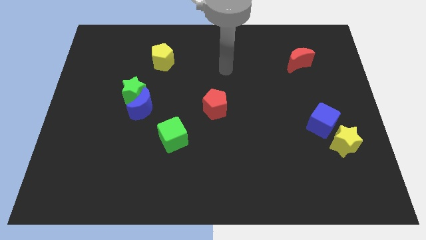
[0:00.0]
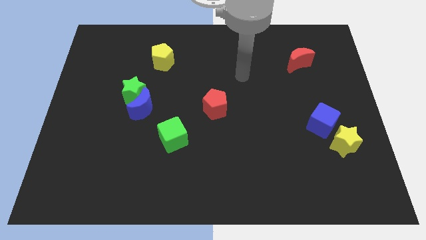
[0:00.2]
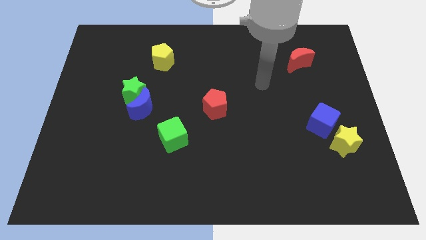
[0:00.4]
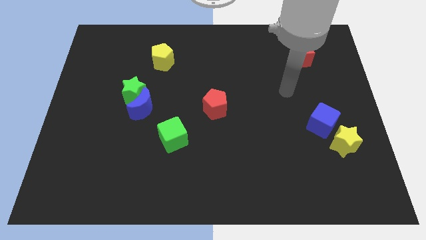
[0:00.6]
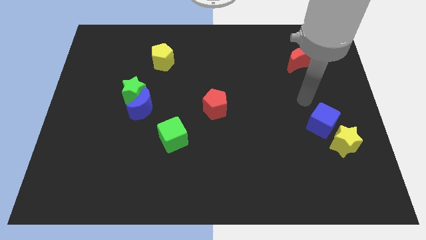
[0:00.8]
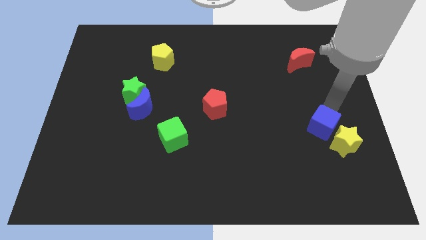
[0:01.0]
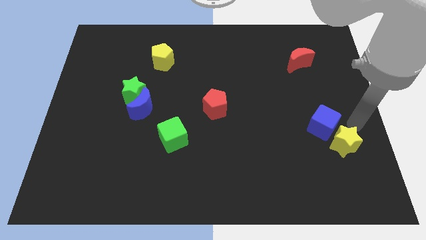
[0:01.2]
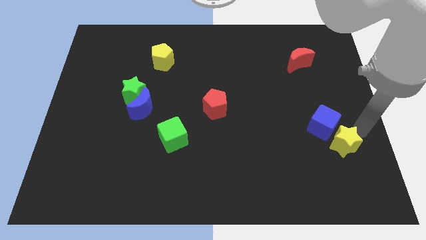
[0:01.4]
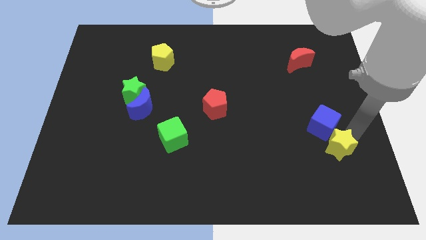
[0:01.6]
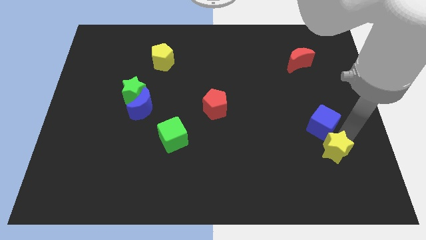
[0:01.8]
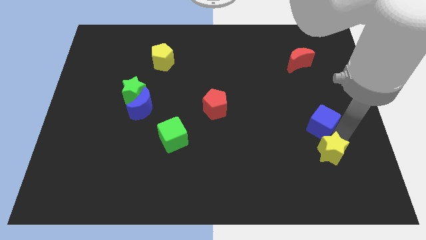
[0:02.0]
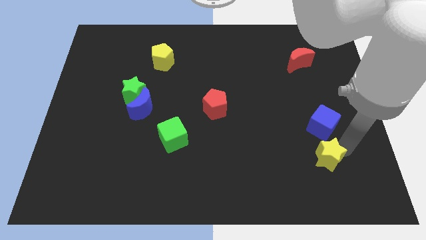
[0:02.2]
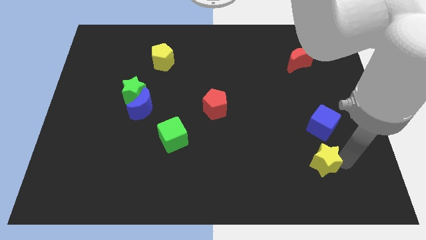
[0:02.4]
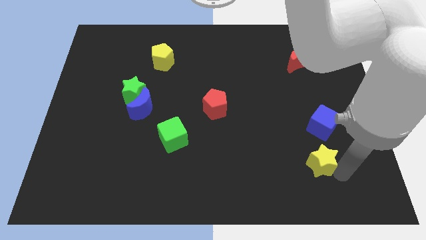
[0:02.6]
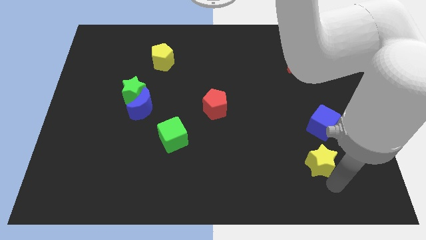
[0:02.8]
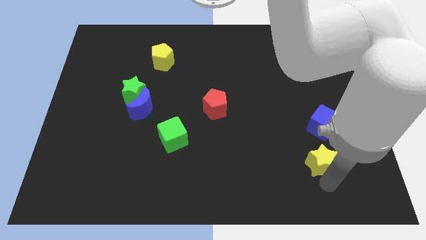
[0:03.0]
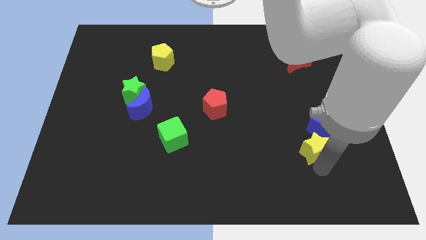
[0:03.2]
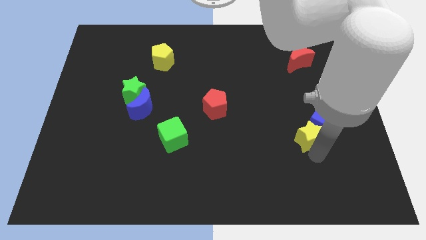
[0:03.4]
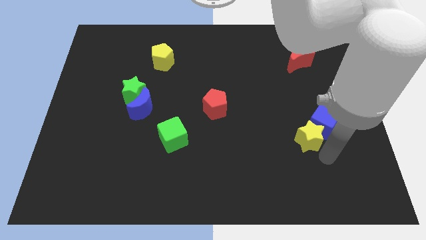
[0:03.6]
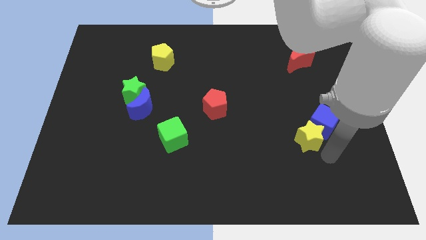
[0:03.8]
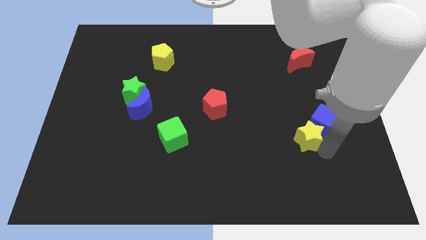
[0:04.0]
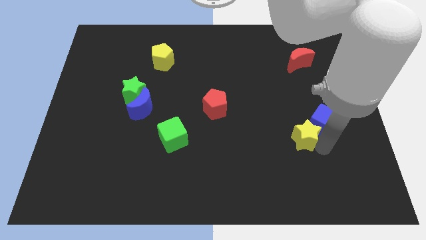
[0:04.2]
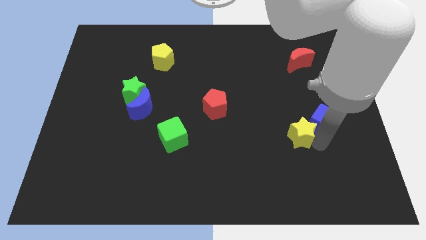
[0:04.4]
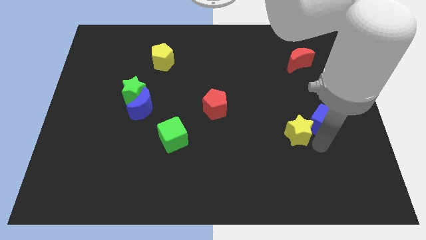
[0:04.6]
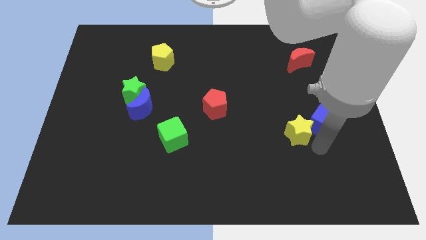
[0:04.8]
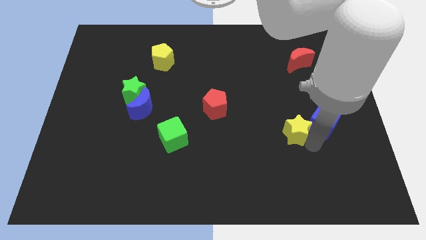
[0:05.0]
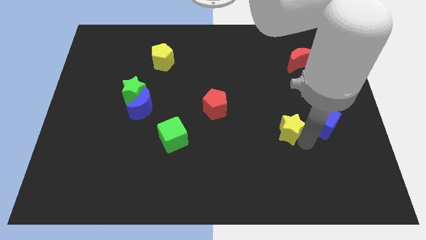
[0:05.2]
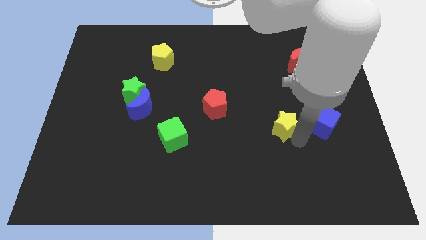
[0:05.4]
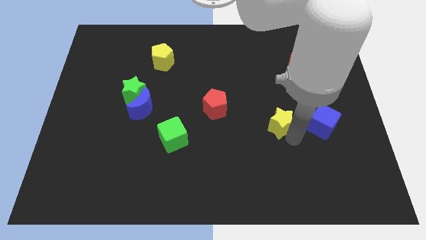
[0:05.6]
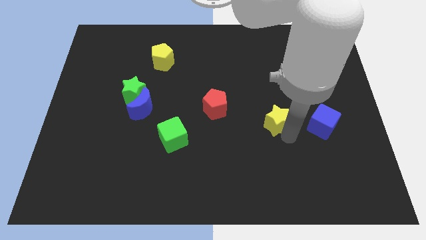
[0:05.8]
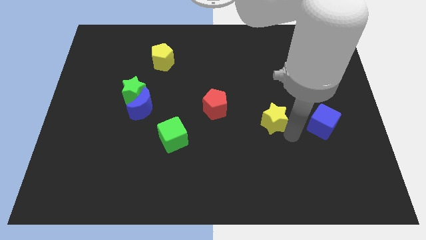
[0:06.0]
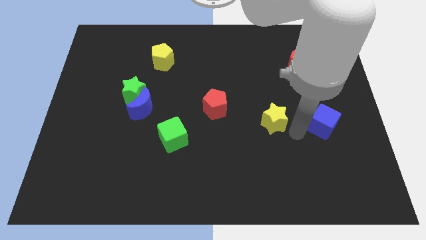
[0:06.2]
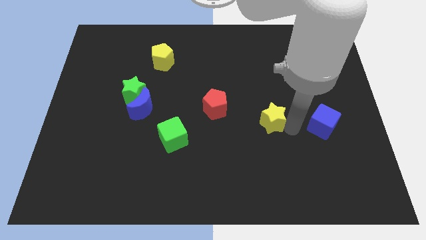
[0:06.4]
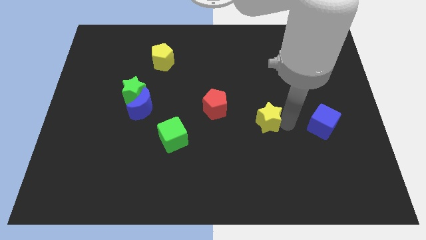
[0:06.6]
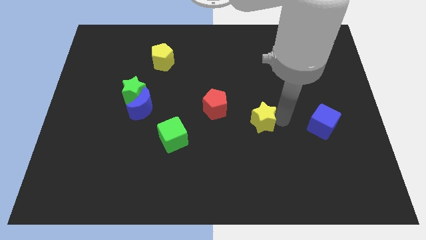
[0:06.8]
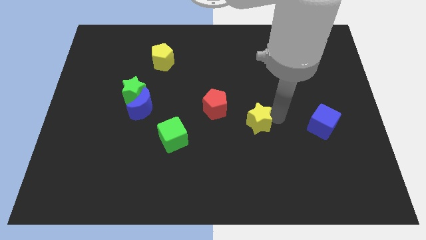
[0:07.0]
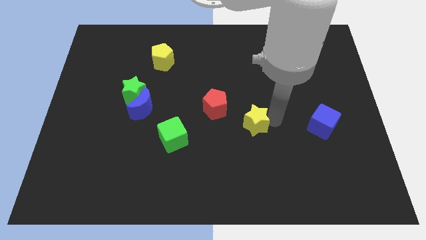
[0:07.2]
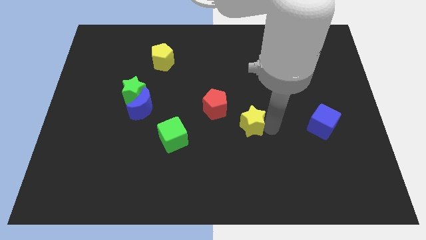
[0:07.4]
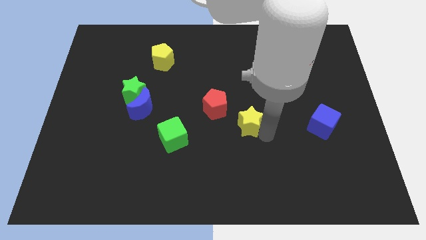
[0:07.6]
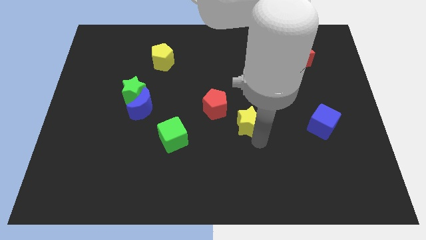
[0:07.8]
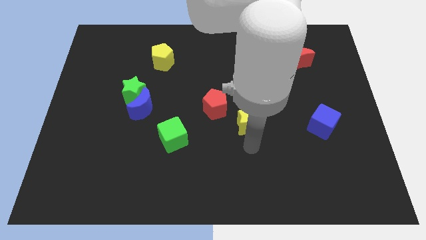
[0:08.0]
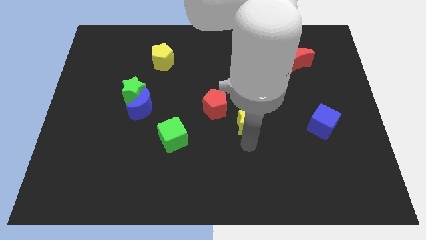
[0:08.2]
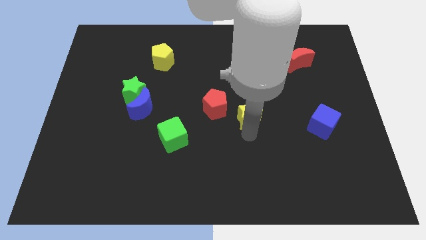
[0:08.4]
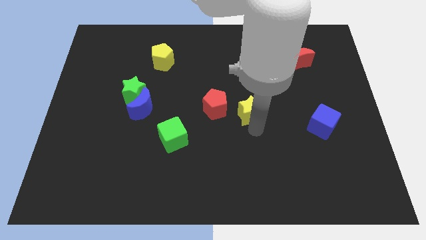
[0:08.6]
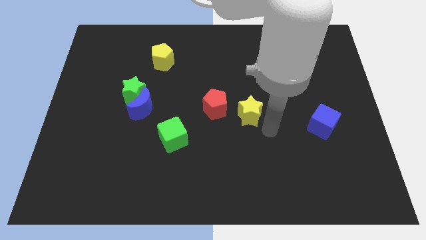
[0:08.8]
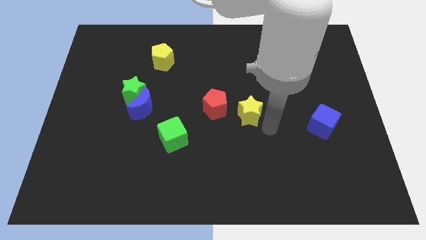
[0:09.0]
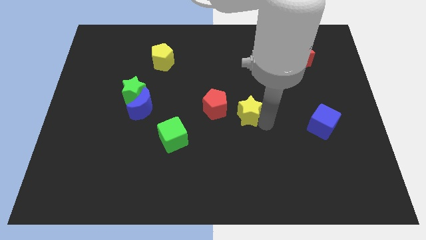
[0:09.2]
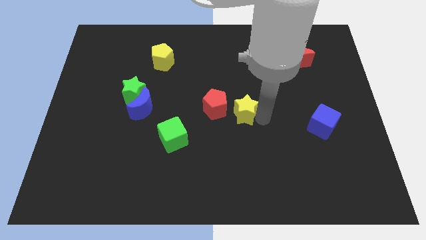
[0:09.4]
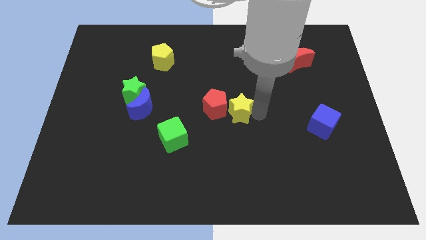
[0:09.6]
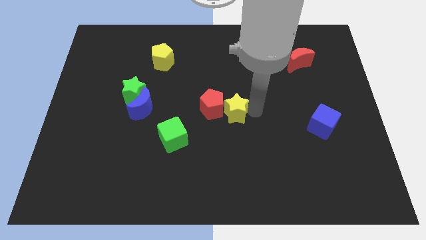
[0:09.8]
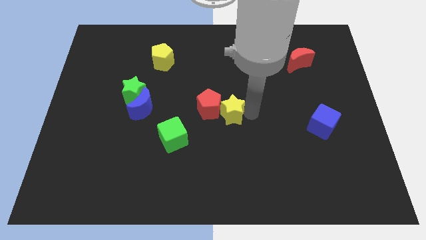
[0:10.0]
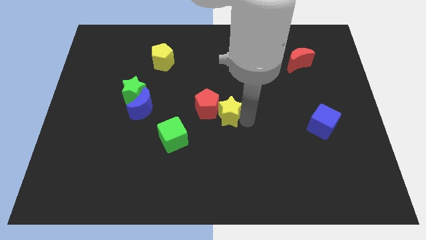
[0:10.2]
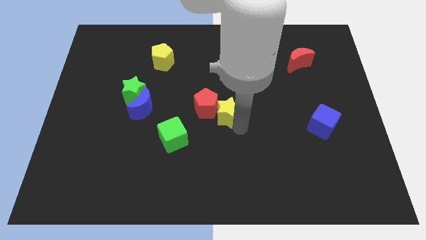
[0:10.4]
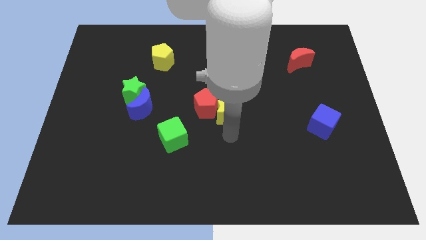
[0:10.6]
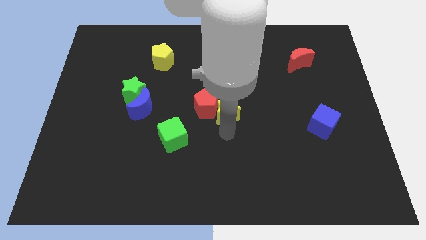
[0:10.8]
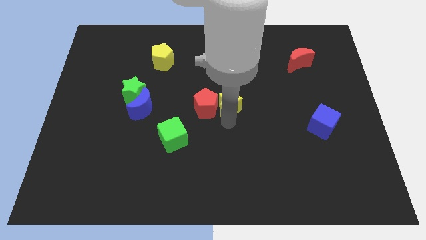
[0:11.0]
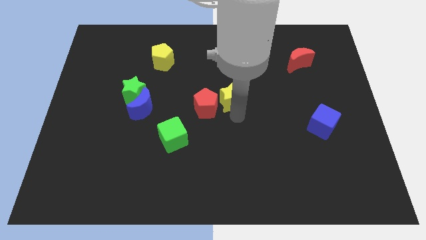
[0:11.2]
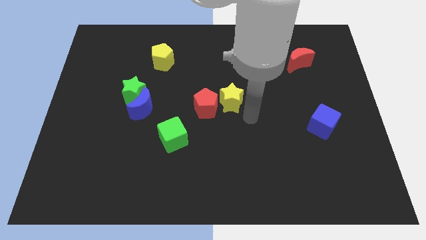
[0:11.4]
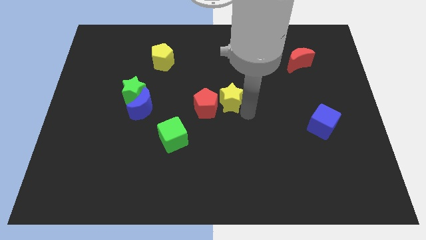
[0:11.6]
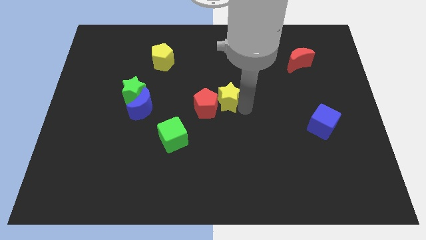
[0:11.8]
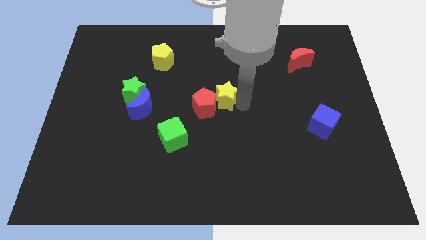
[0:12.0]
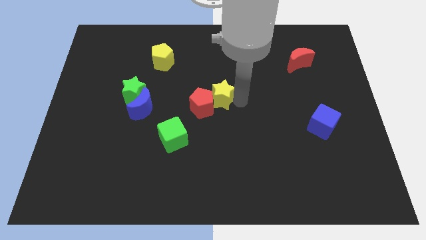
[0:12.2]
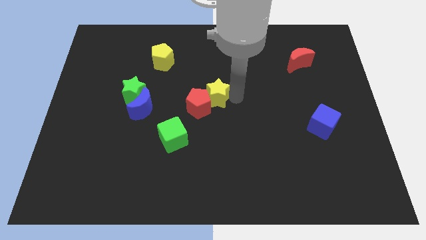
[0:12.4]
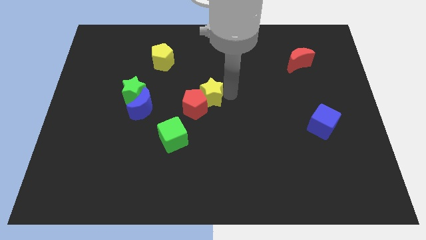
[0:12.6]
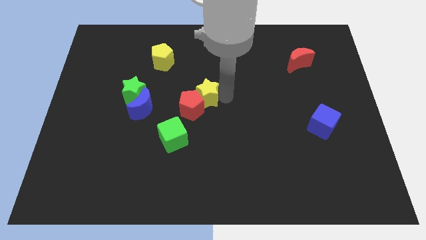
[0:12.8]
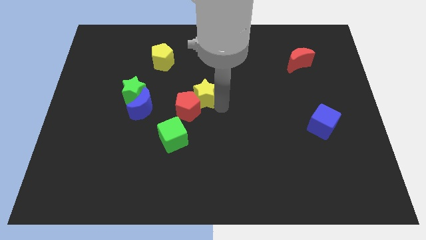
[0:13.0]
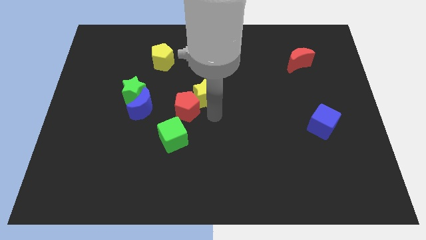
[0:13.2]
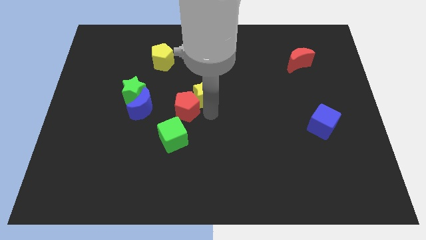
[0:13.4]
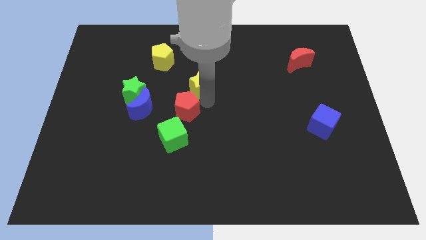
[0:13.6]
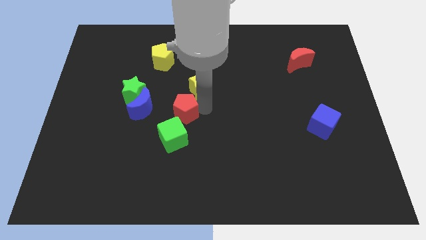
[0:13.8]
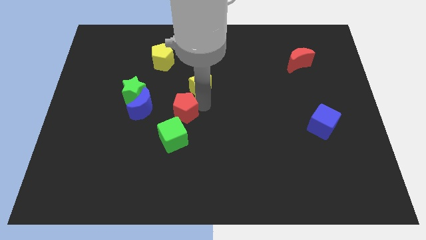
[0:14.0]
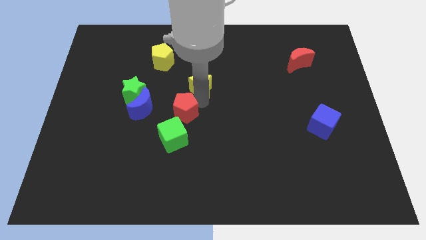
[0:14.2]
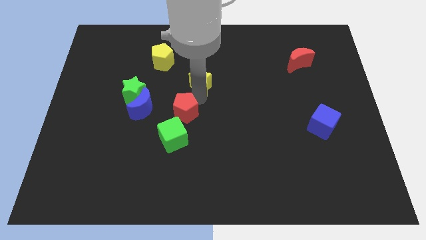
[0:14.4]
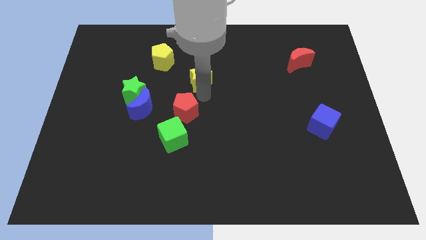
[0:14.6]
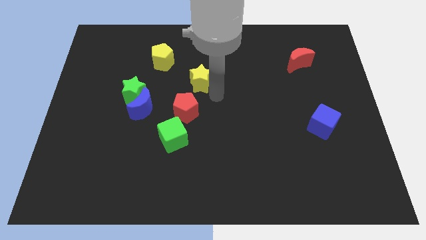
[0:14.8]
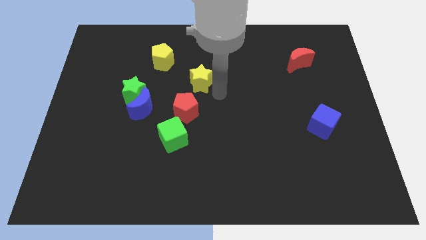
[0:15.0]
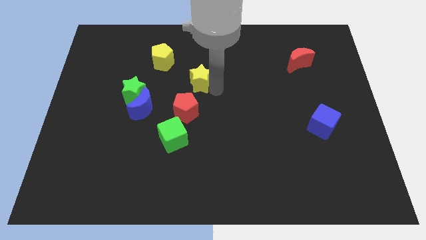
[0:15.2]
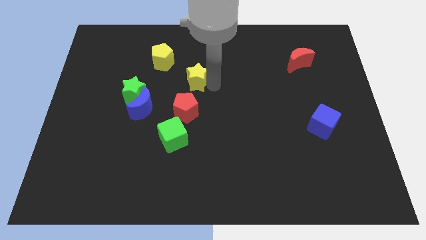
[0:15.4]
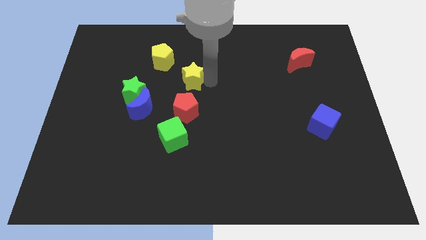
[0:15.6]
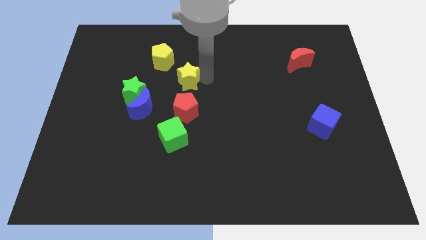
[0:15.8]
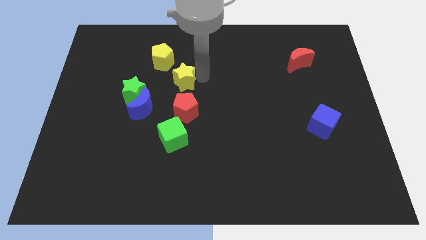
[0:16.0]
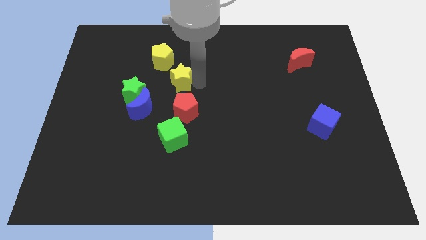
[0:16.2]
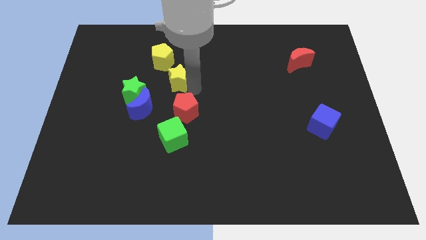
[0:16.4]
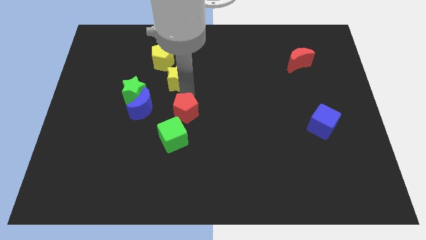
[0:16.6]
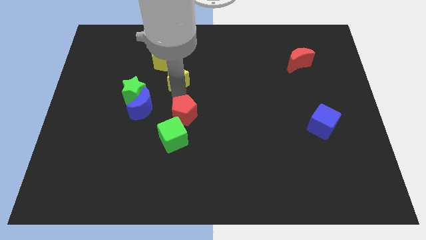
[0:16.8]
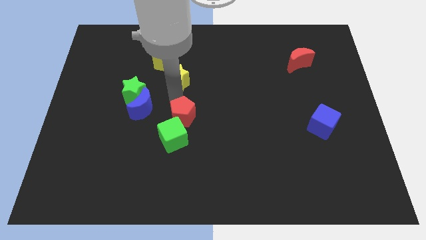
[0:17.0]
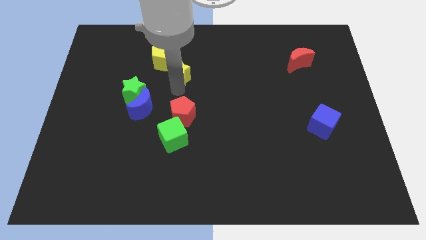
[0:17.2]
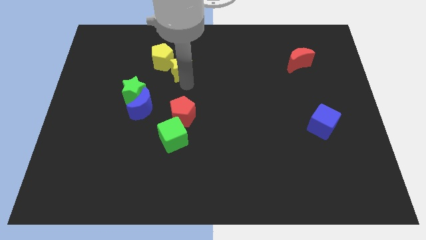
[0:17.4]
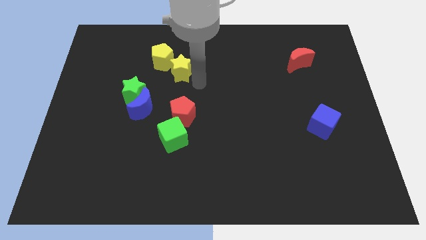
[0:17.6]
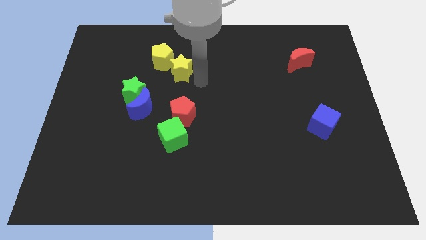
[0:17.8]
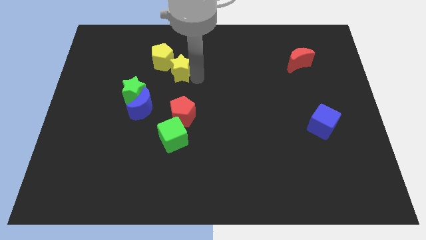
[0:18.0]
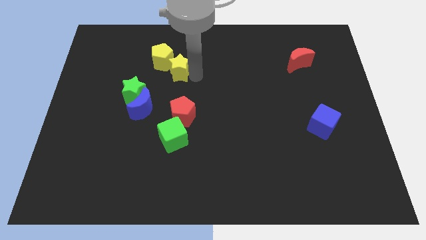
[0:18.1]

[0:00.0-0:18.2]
move the yellow star towards the yellow pentagon
